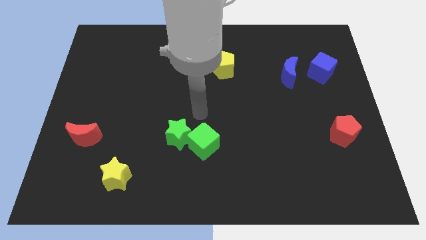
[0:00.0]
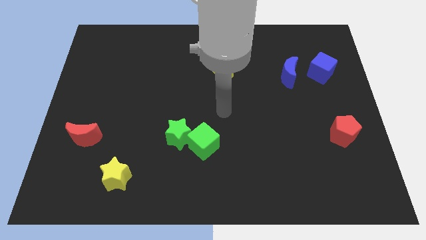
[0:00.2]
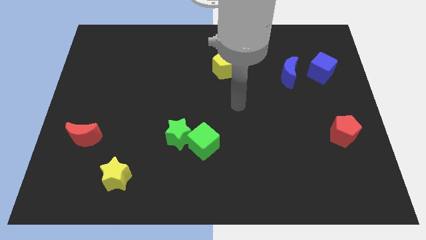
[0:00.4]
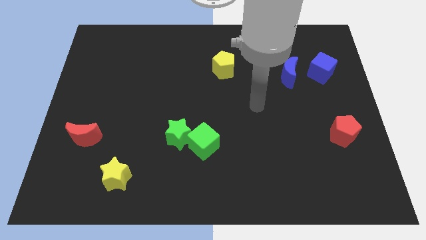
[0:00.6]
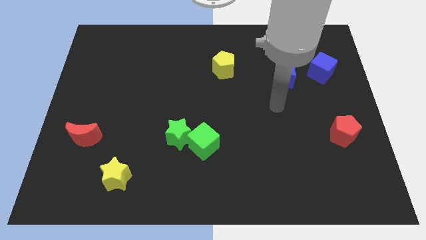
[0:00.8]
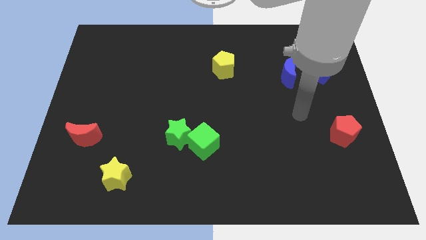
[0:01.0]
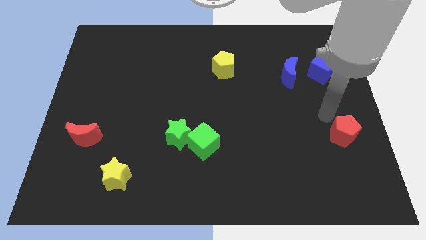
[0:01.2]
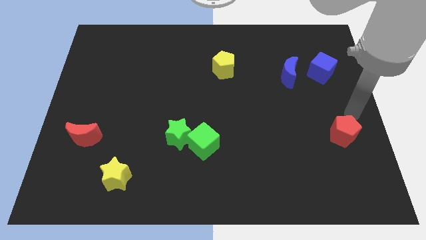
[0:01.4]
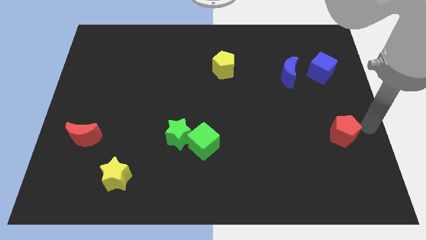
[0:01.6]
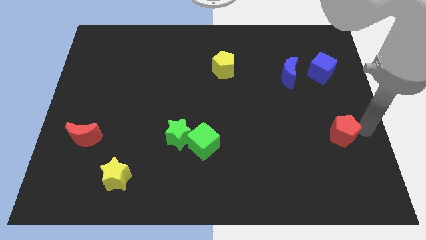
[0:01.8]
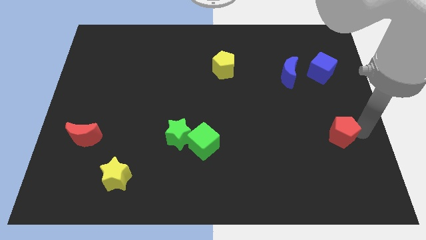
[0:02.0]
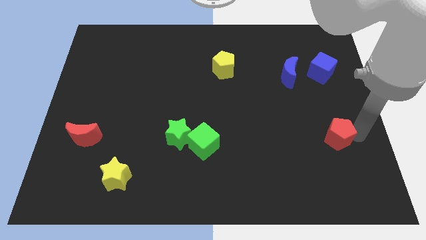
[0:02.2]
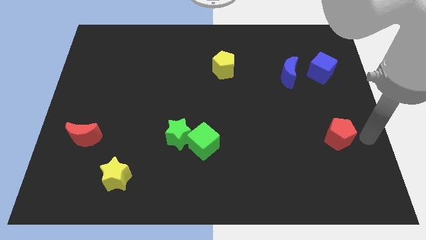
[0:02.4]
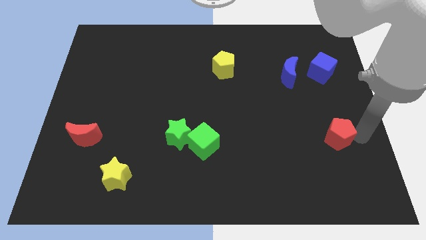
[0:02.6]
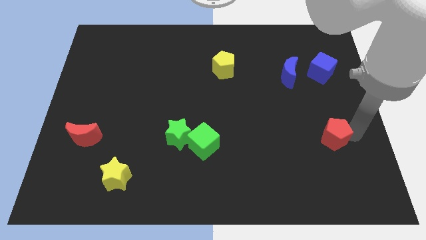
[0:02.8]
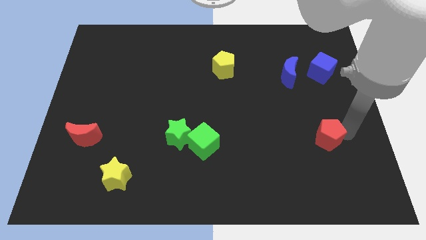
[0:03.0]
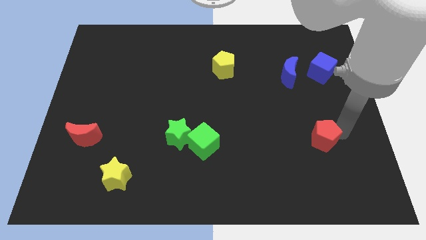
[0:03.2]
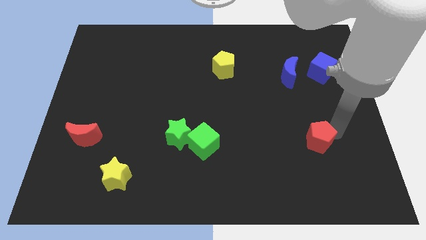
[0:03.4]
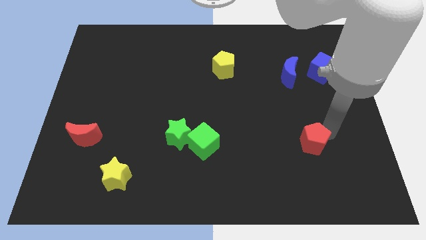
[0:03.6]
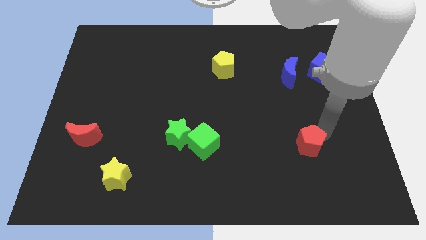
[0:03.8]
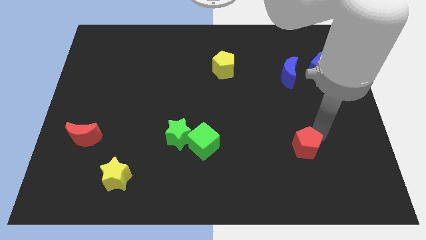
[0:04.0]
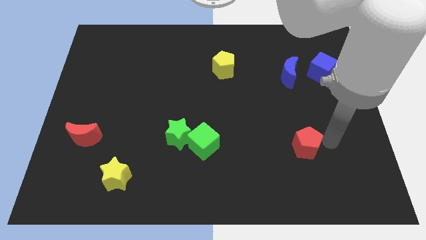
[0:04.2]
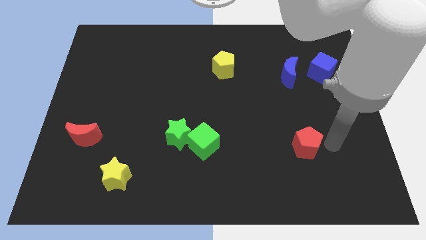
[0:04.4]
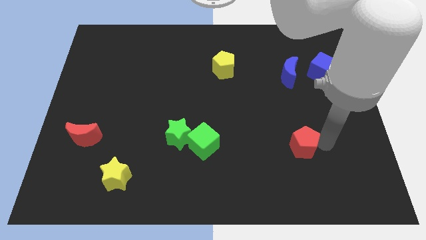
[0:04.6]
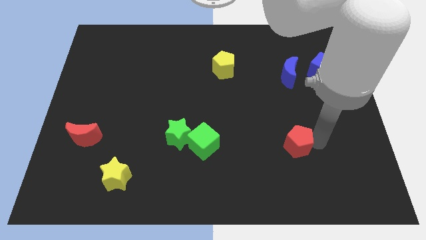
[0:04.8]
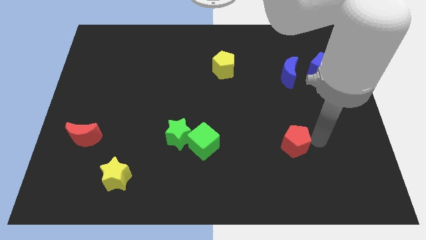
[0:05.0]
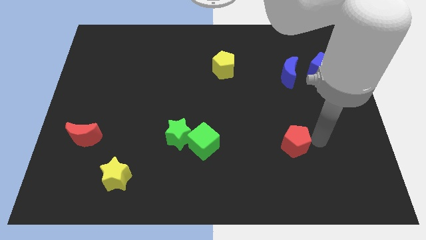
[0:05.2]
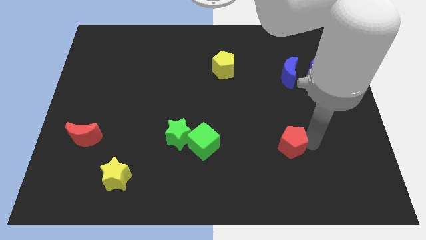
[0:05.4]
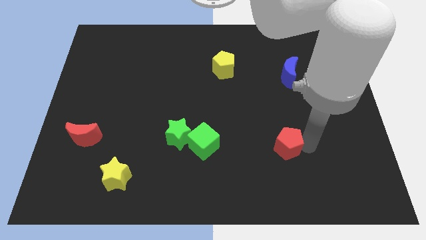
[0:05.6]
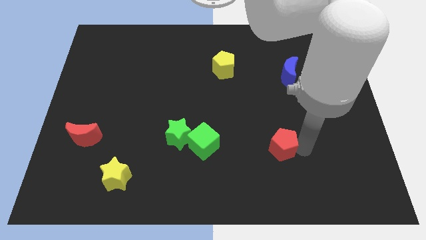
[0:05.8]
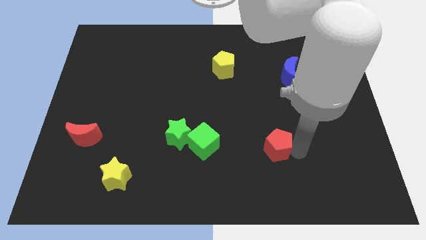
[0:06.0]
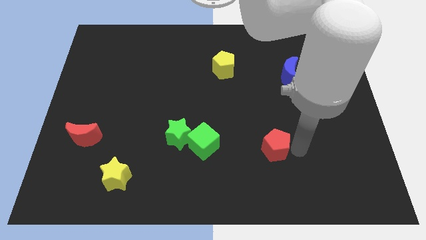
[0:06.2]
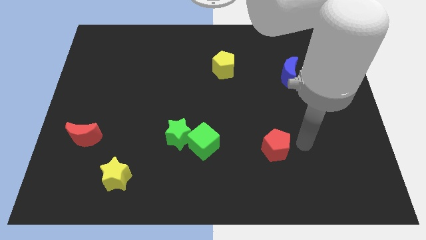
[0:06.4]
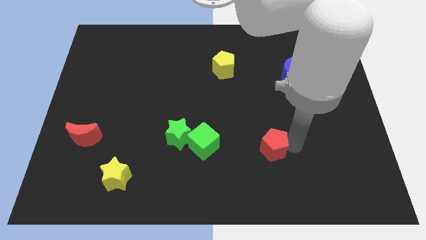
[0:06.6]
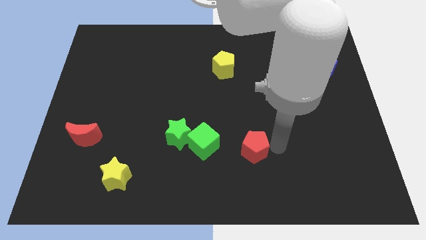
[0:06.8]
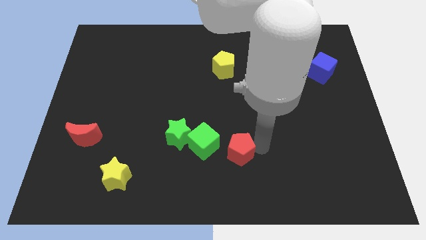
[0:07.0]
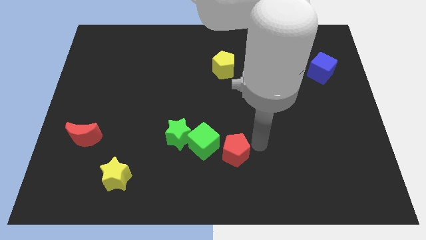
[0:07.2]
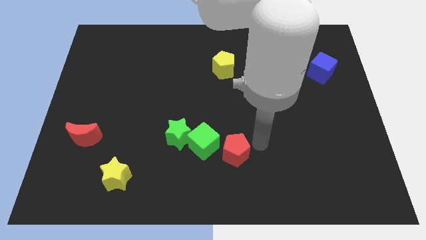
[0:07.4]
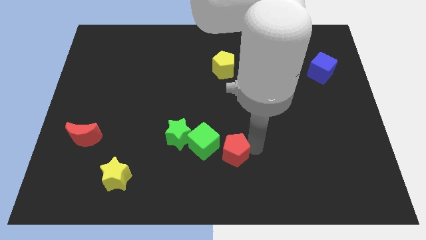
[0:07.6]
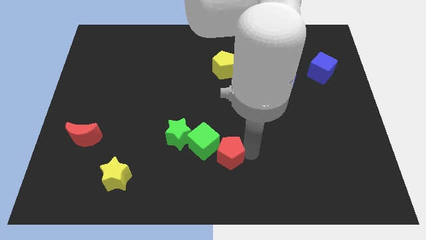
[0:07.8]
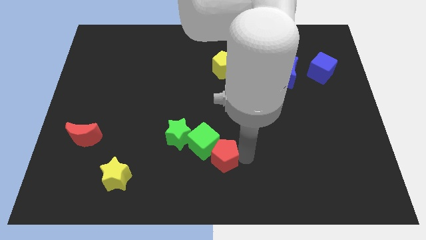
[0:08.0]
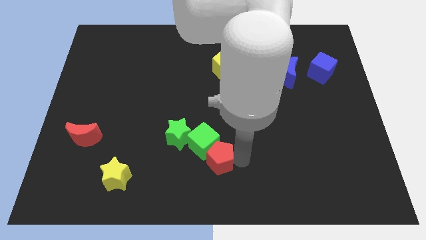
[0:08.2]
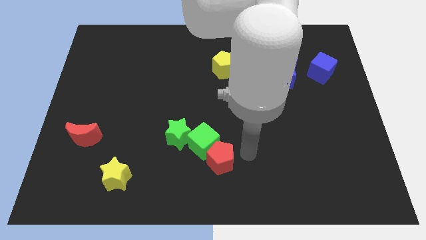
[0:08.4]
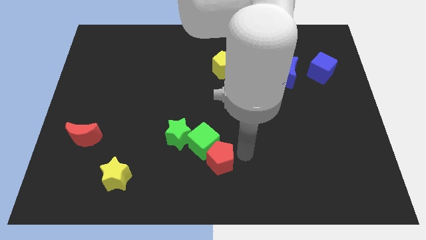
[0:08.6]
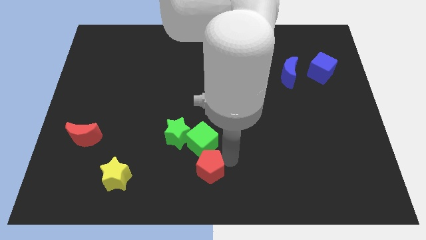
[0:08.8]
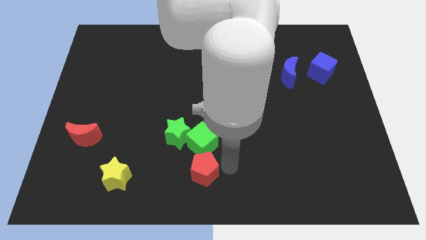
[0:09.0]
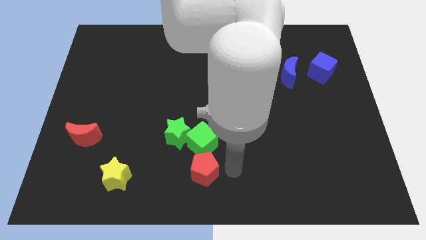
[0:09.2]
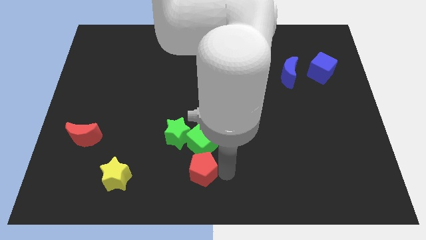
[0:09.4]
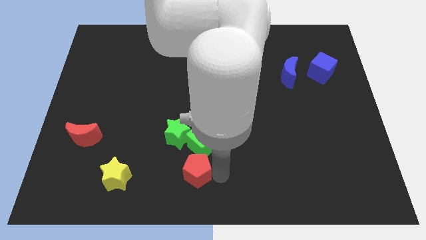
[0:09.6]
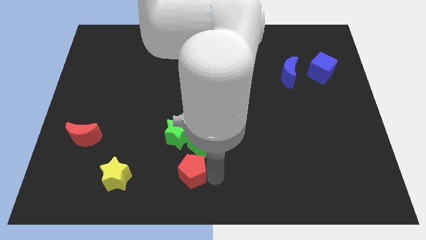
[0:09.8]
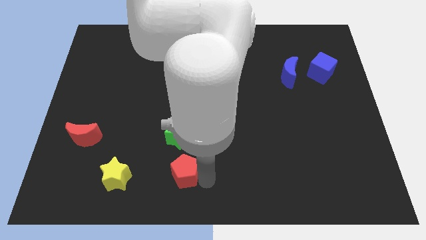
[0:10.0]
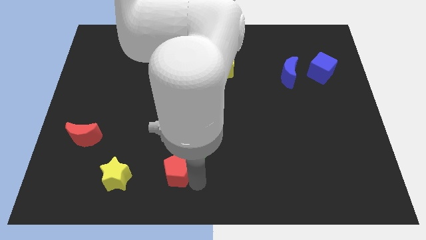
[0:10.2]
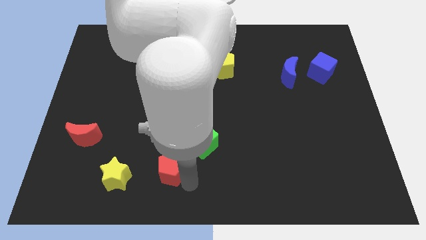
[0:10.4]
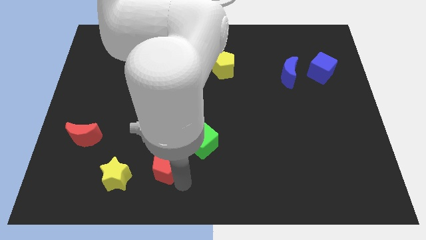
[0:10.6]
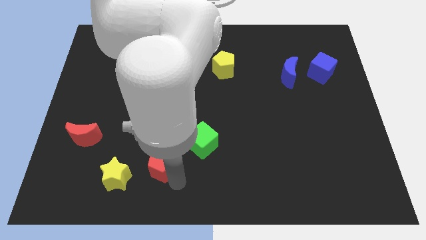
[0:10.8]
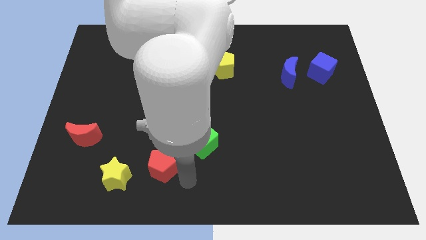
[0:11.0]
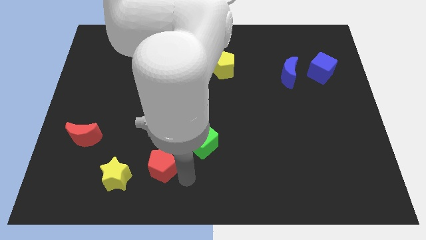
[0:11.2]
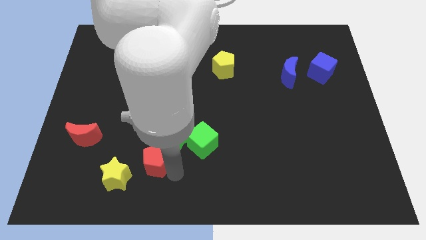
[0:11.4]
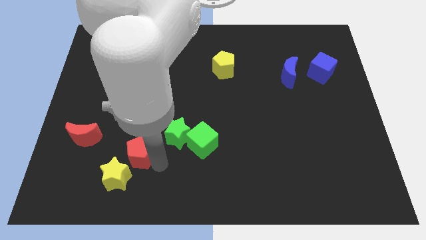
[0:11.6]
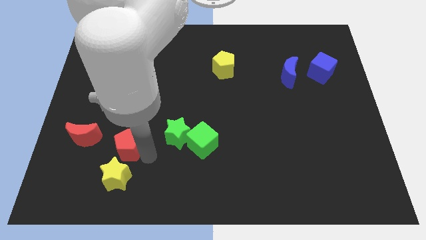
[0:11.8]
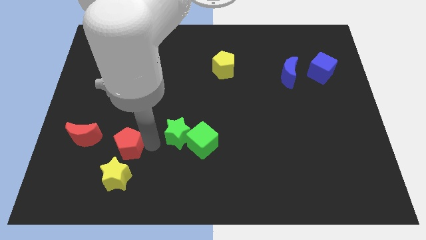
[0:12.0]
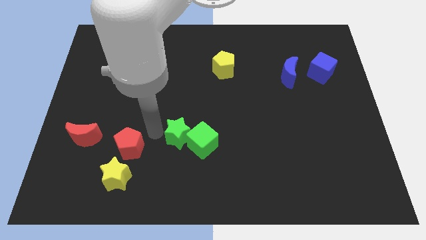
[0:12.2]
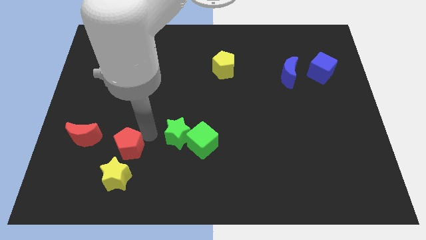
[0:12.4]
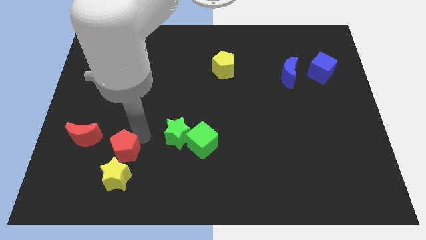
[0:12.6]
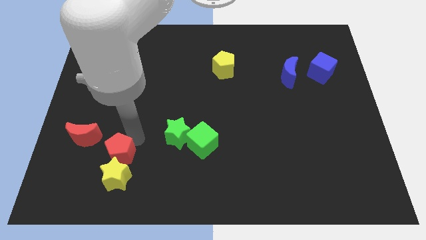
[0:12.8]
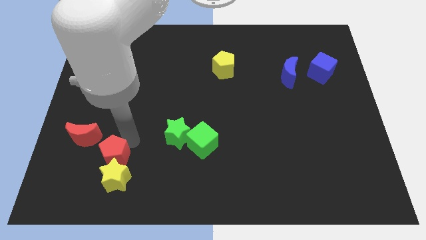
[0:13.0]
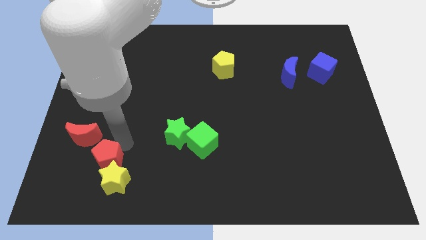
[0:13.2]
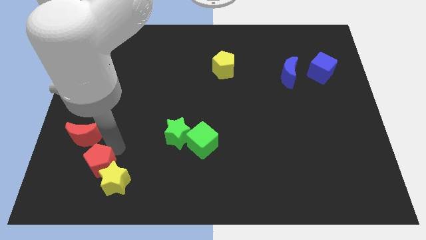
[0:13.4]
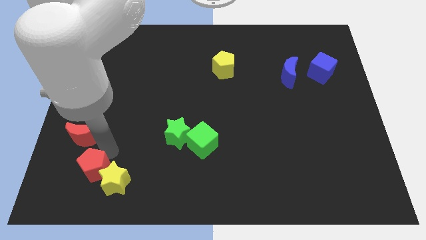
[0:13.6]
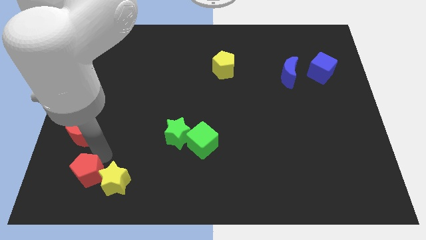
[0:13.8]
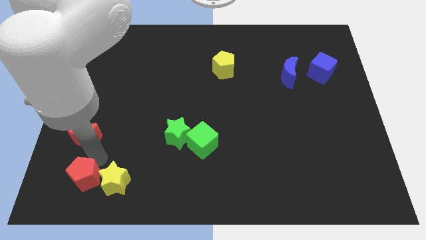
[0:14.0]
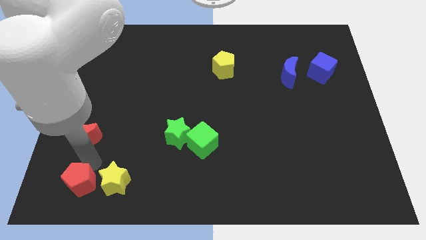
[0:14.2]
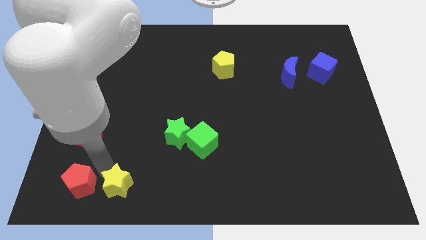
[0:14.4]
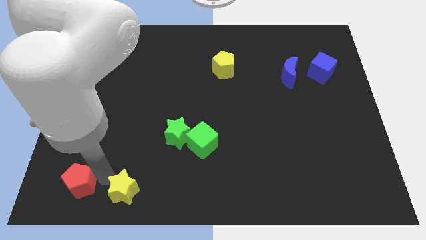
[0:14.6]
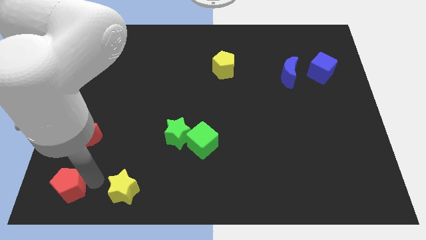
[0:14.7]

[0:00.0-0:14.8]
put the red pentagon to the lower left corner
